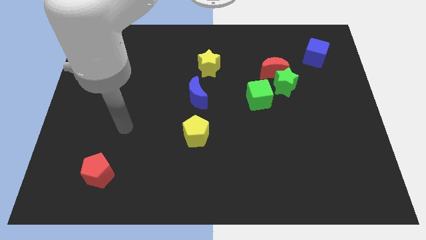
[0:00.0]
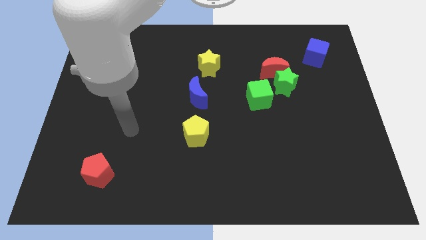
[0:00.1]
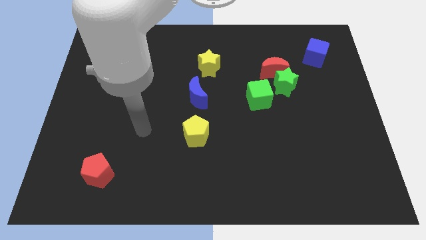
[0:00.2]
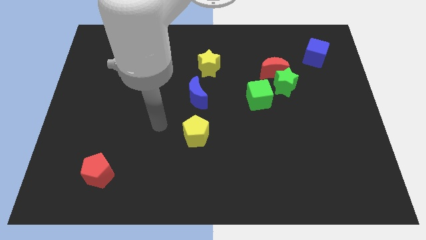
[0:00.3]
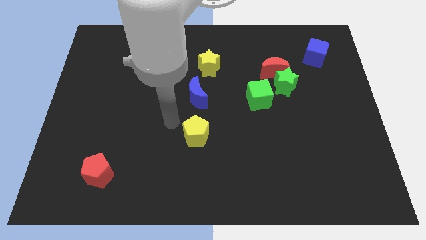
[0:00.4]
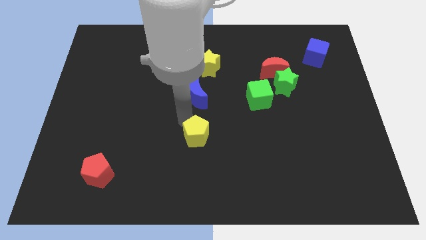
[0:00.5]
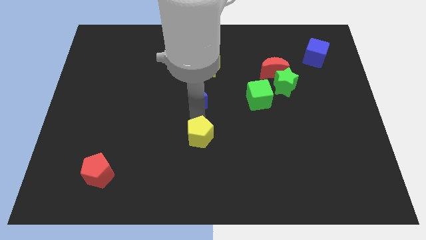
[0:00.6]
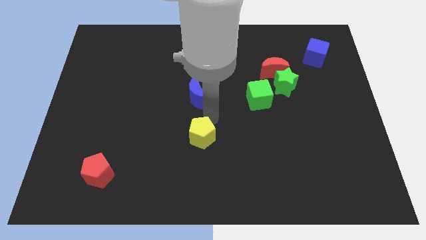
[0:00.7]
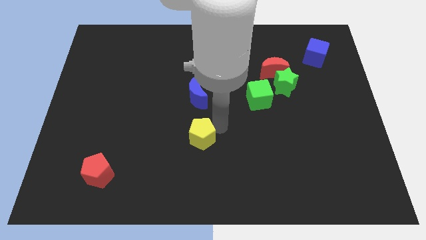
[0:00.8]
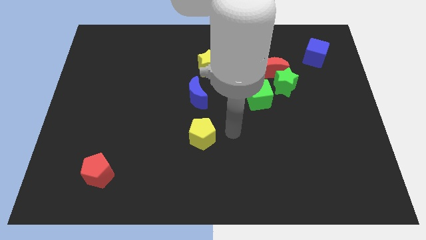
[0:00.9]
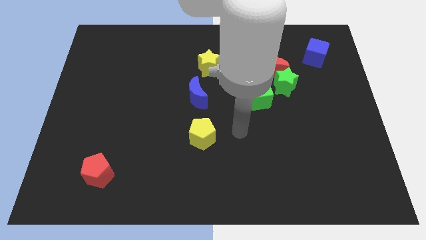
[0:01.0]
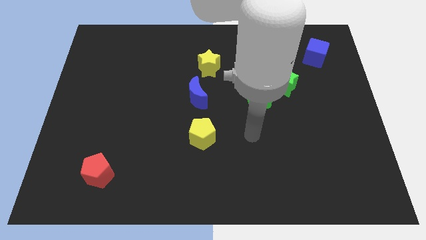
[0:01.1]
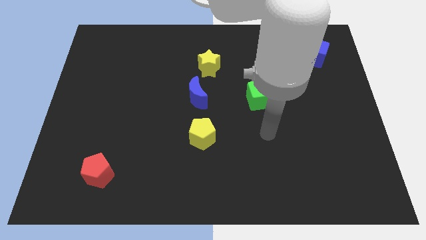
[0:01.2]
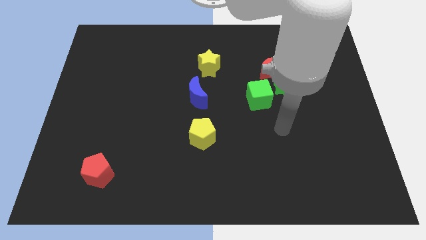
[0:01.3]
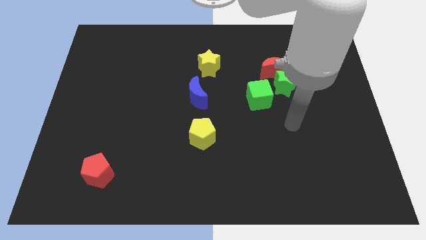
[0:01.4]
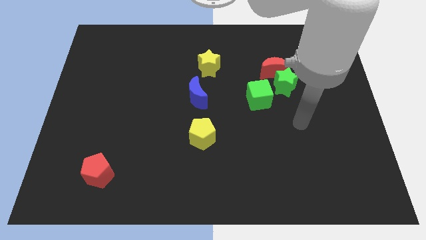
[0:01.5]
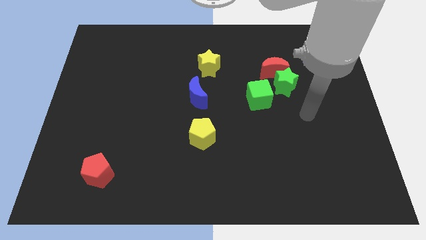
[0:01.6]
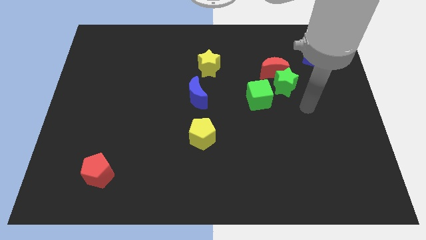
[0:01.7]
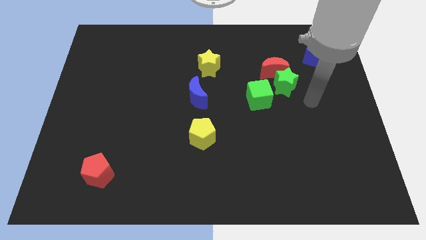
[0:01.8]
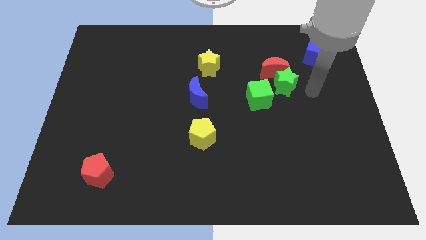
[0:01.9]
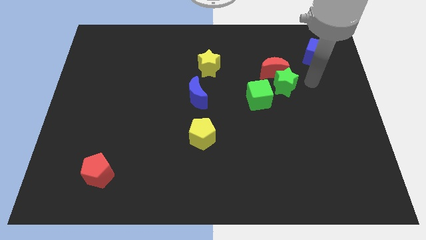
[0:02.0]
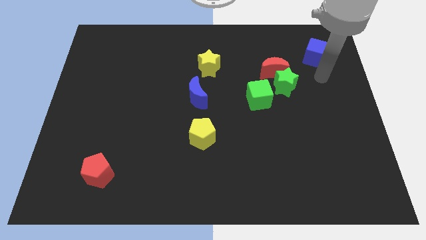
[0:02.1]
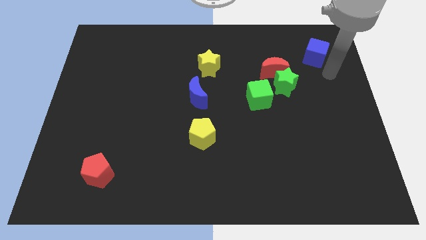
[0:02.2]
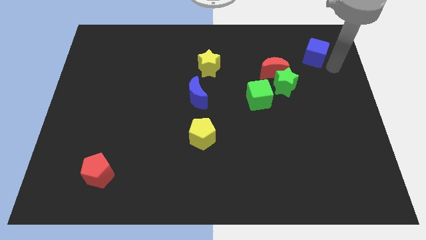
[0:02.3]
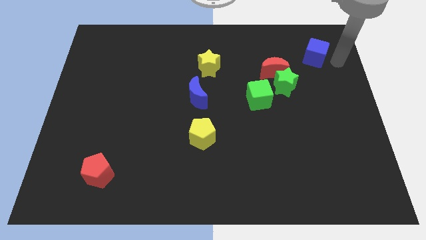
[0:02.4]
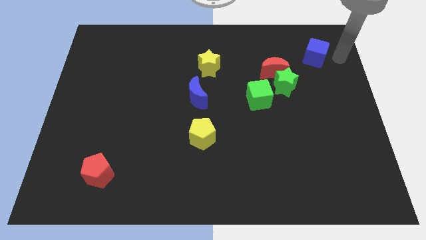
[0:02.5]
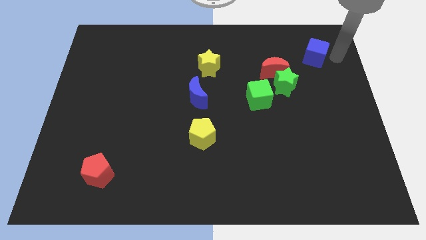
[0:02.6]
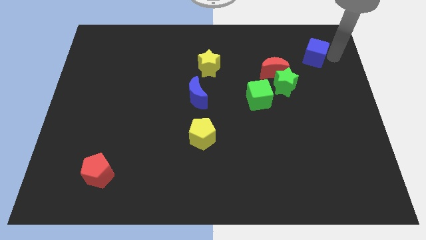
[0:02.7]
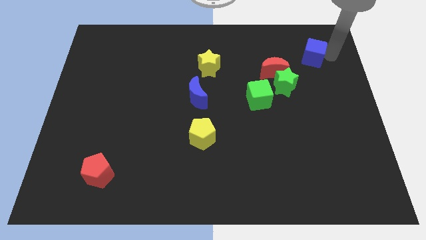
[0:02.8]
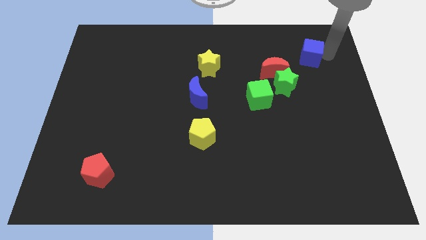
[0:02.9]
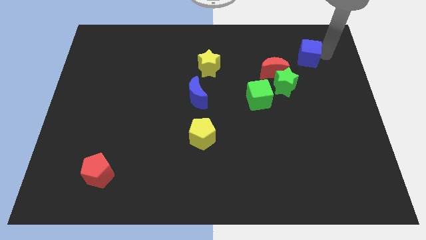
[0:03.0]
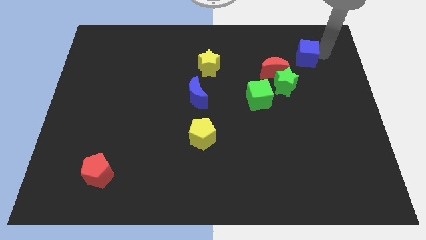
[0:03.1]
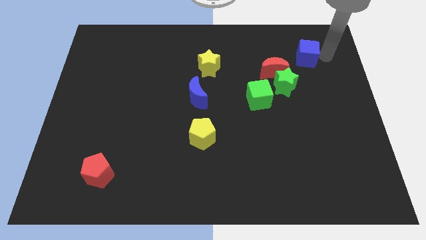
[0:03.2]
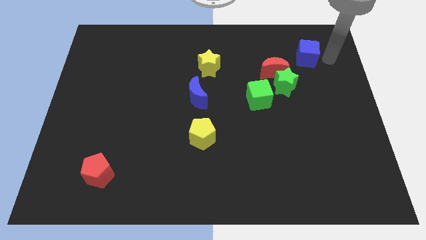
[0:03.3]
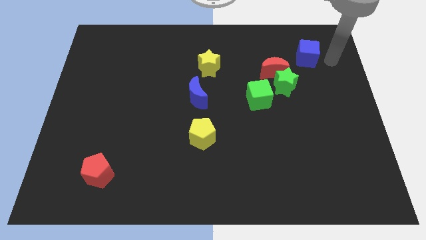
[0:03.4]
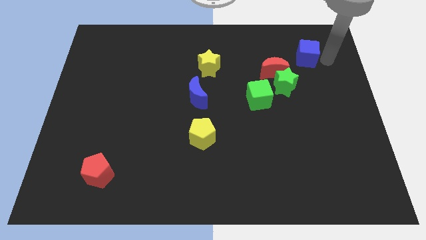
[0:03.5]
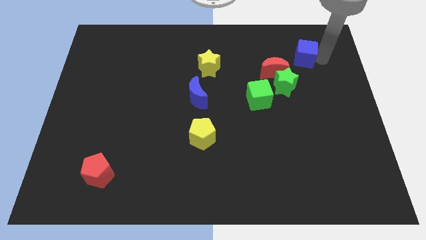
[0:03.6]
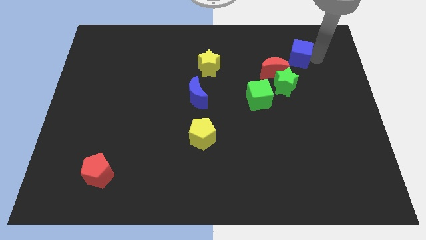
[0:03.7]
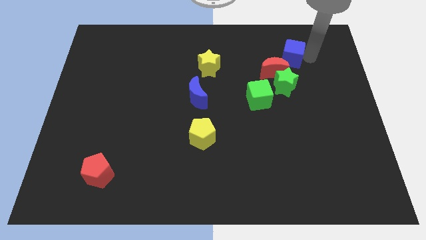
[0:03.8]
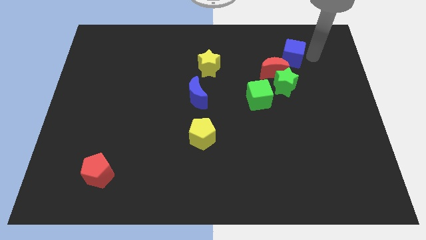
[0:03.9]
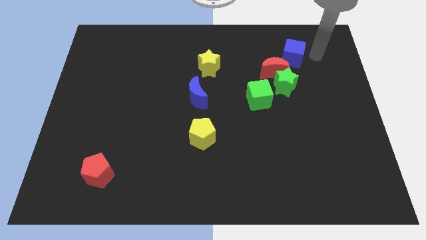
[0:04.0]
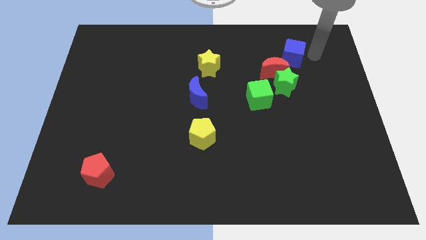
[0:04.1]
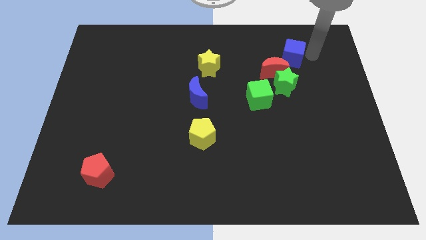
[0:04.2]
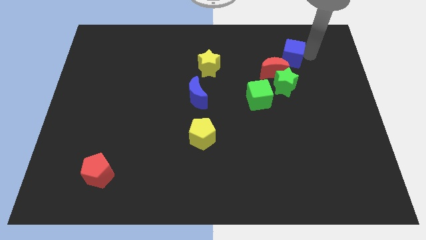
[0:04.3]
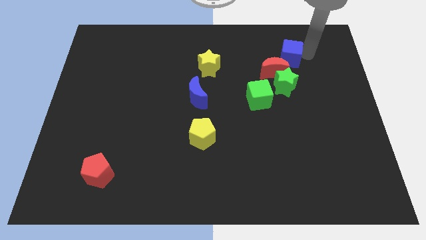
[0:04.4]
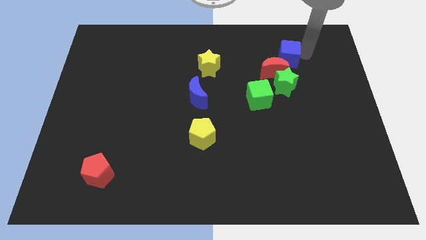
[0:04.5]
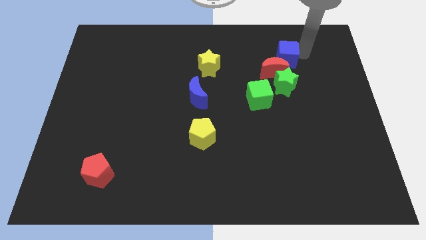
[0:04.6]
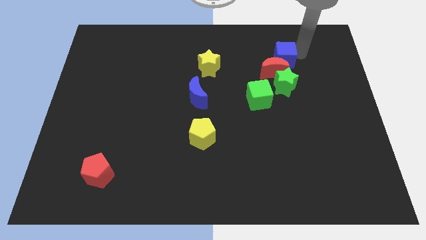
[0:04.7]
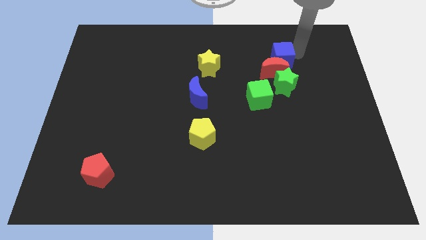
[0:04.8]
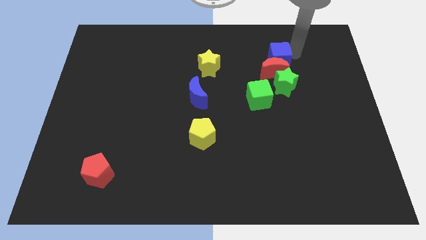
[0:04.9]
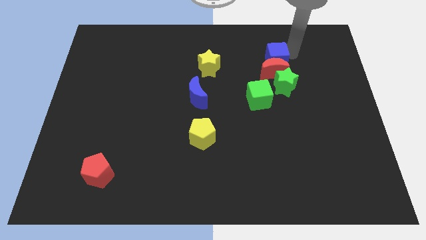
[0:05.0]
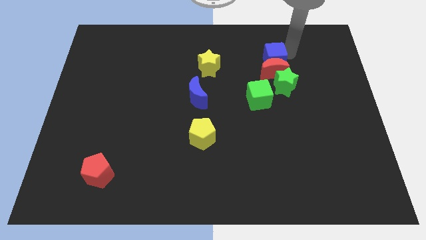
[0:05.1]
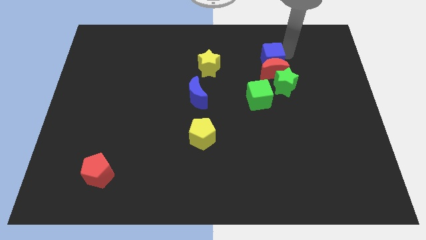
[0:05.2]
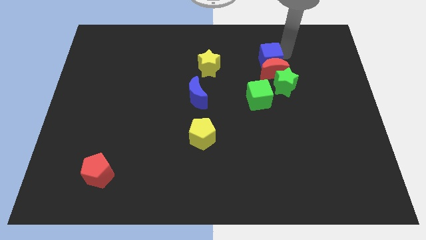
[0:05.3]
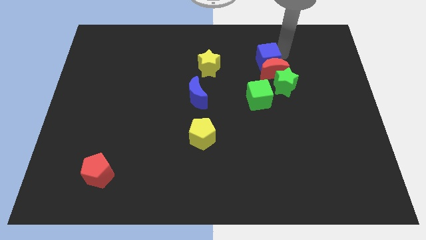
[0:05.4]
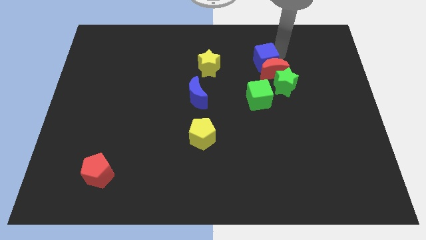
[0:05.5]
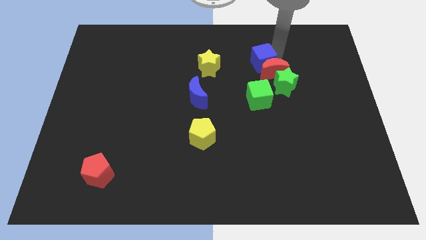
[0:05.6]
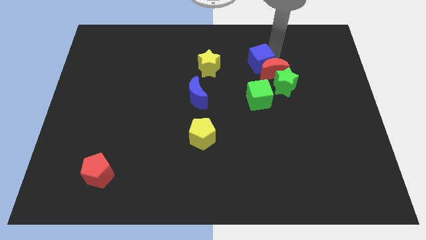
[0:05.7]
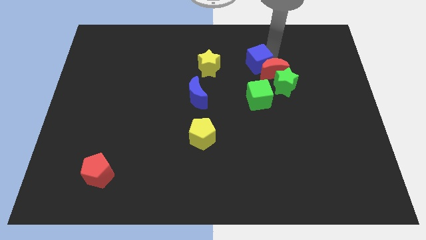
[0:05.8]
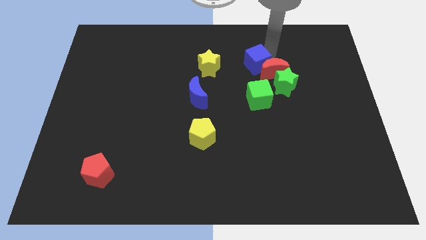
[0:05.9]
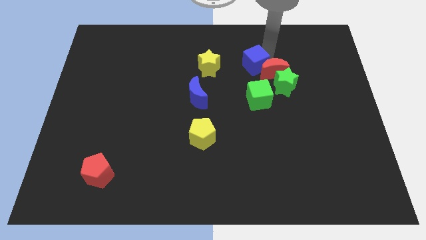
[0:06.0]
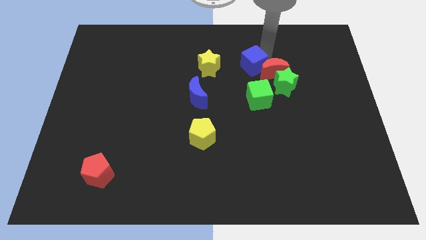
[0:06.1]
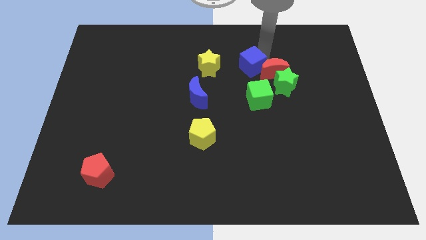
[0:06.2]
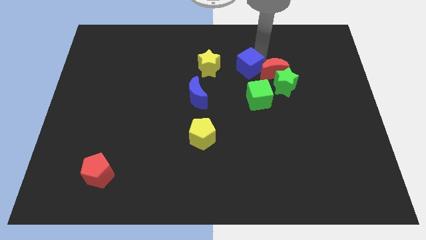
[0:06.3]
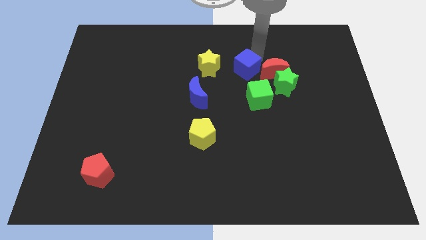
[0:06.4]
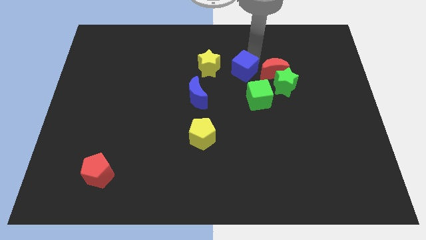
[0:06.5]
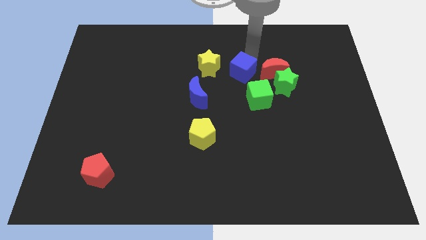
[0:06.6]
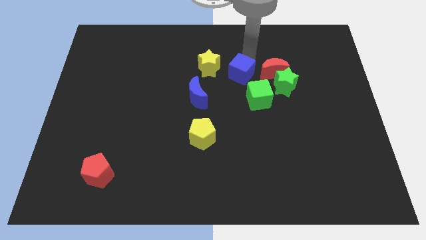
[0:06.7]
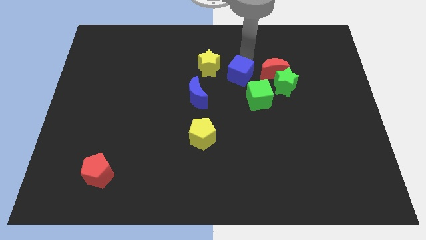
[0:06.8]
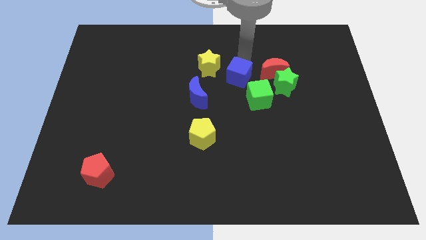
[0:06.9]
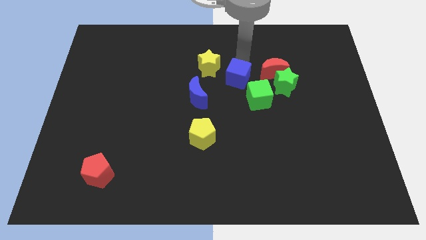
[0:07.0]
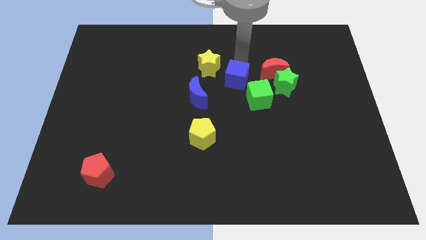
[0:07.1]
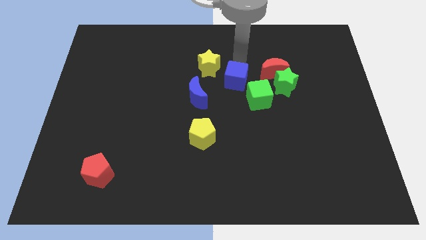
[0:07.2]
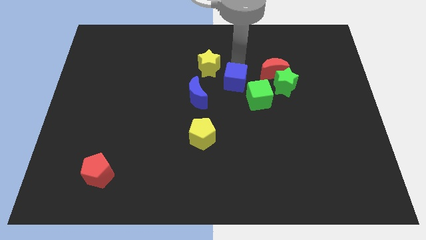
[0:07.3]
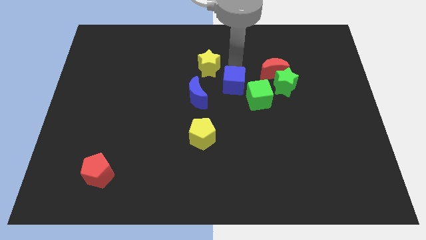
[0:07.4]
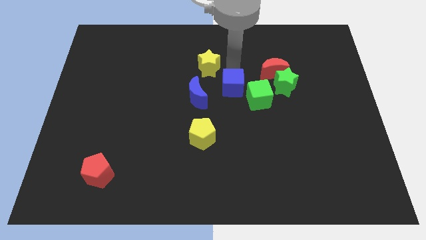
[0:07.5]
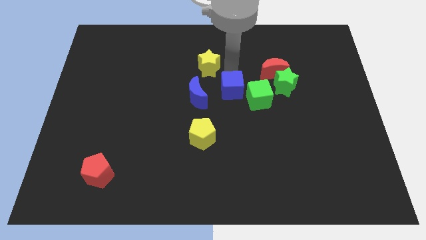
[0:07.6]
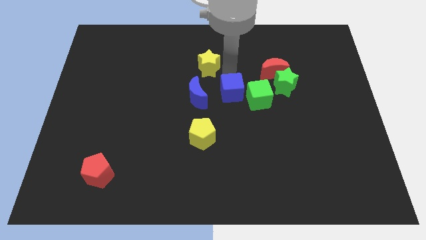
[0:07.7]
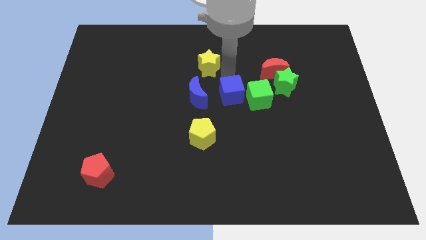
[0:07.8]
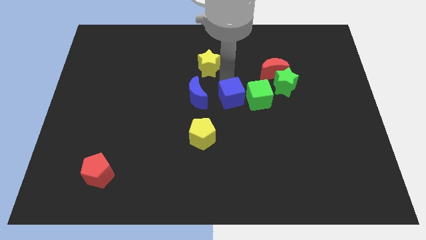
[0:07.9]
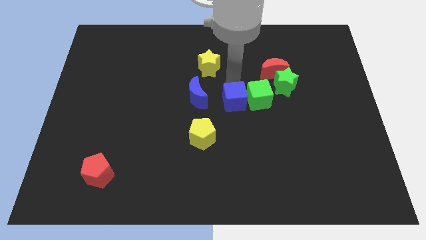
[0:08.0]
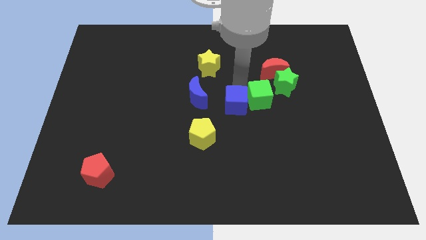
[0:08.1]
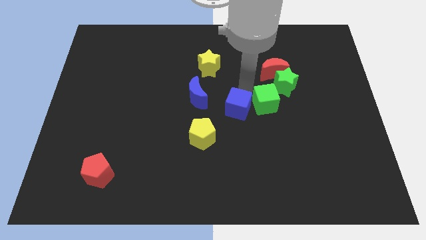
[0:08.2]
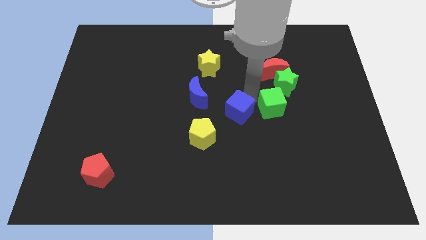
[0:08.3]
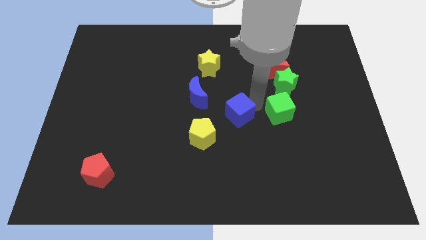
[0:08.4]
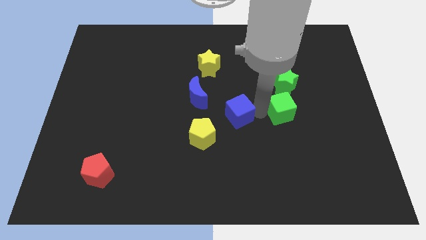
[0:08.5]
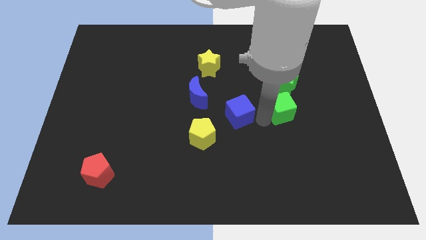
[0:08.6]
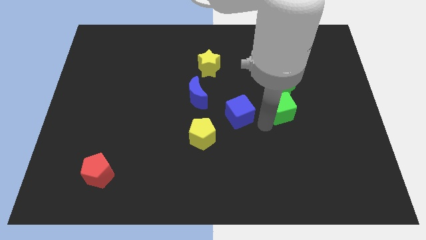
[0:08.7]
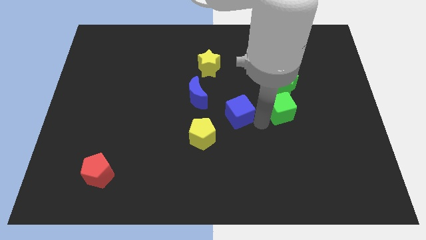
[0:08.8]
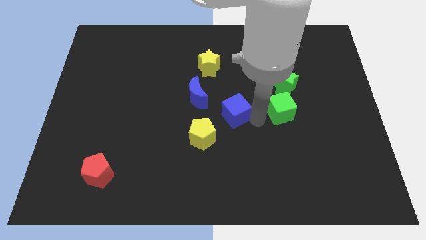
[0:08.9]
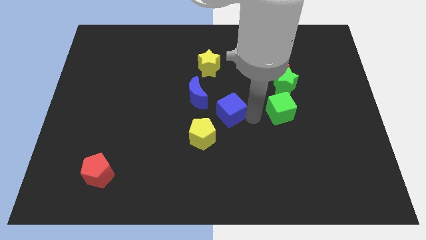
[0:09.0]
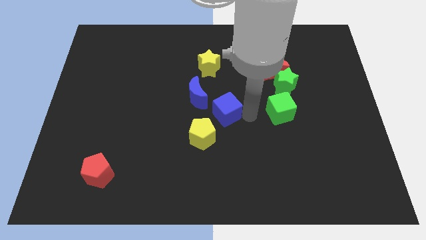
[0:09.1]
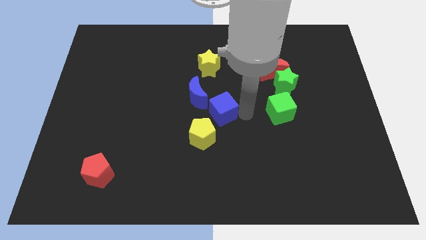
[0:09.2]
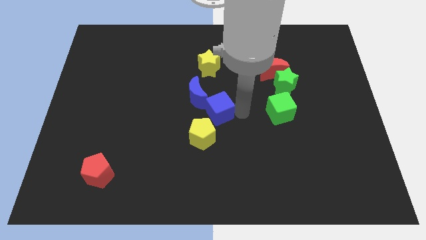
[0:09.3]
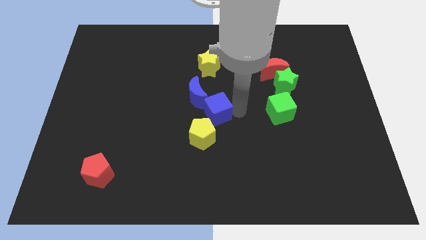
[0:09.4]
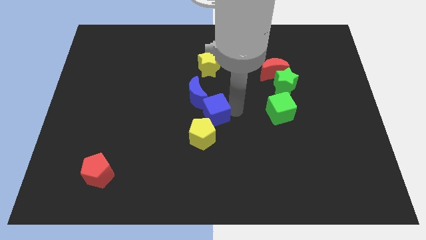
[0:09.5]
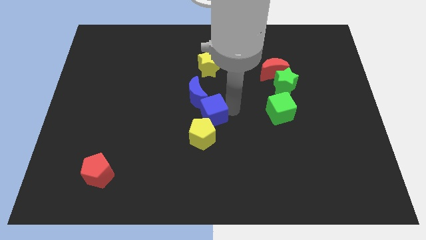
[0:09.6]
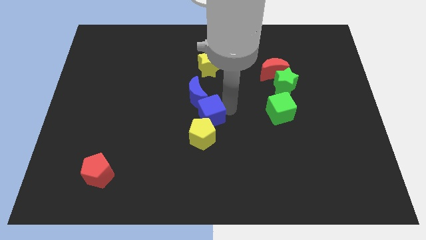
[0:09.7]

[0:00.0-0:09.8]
push the blue cube to the blue moon
